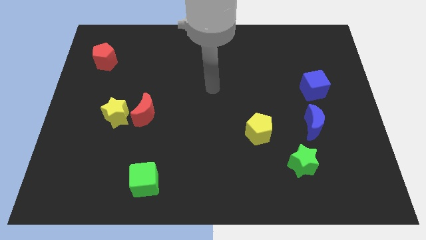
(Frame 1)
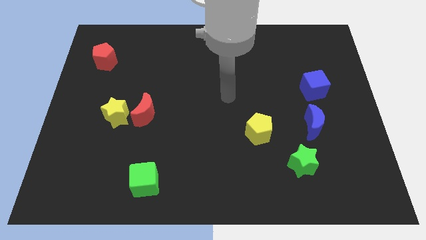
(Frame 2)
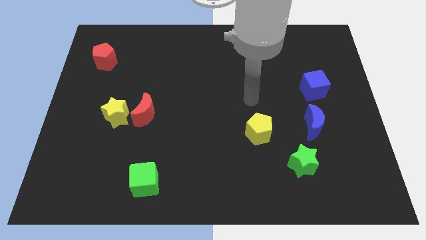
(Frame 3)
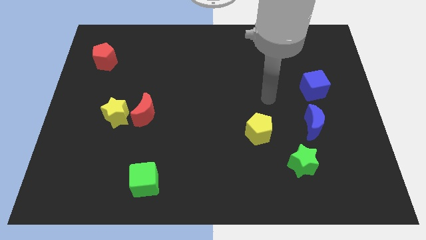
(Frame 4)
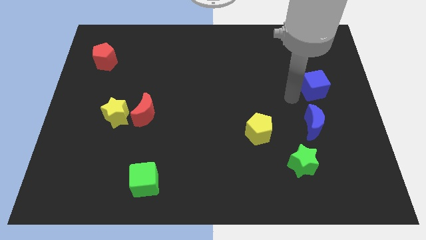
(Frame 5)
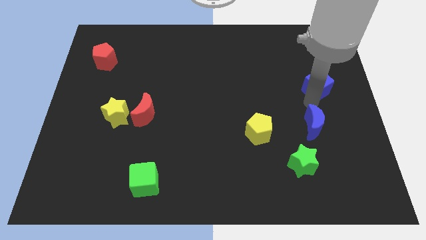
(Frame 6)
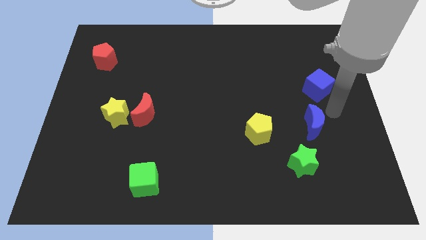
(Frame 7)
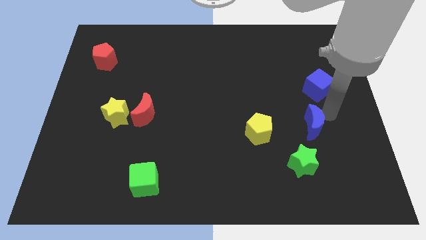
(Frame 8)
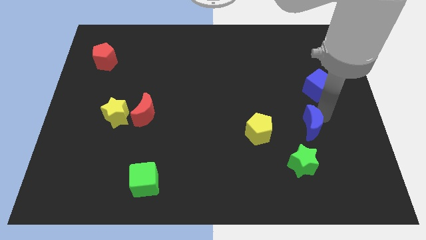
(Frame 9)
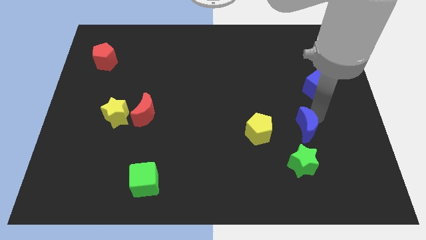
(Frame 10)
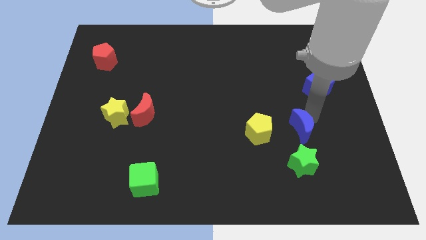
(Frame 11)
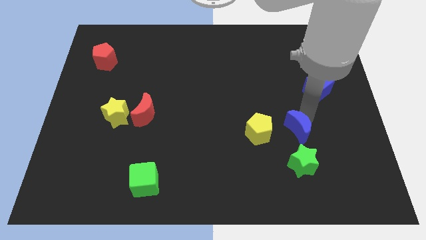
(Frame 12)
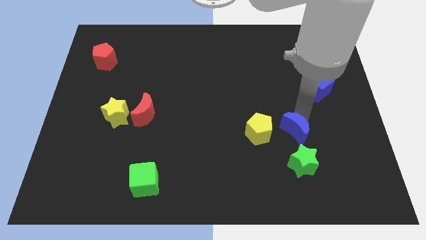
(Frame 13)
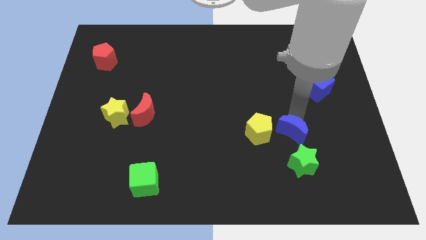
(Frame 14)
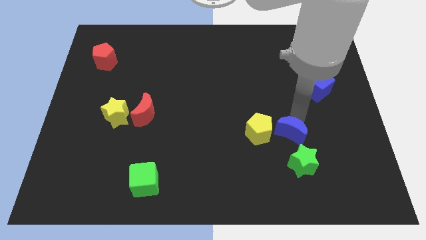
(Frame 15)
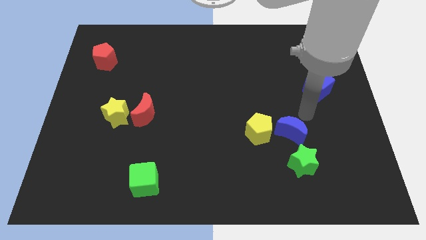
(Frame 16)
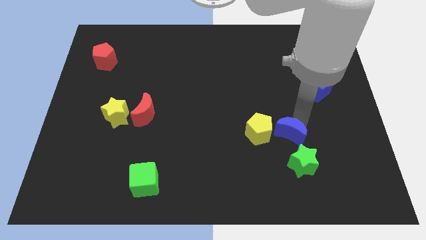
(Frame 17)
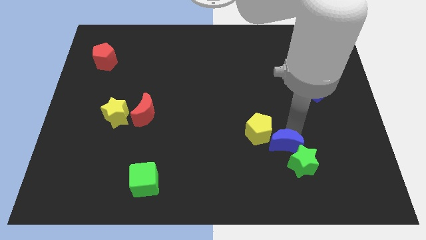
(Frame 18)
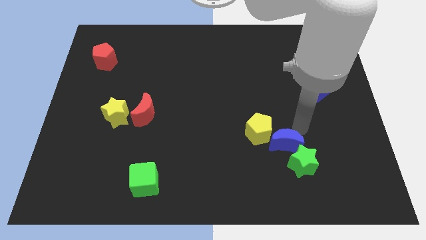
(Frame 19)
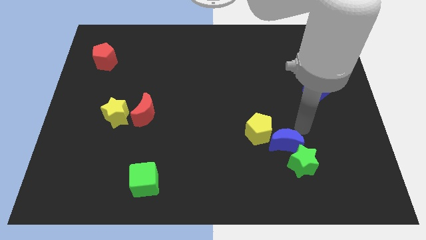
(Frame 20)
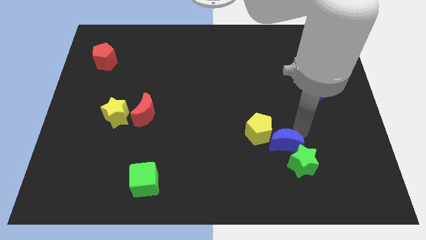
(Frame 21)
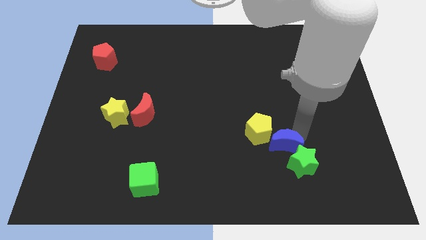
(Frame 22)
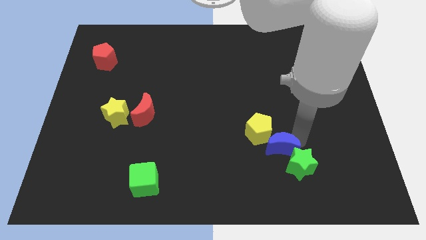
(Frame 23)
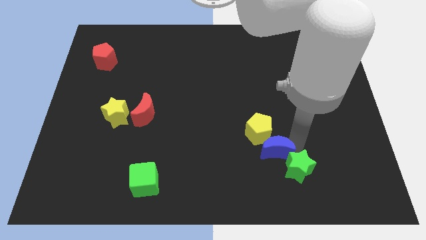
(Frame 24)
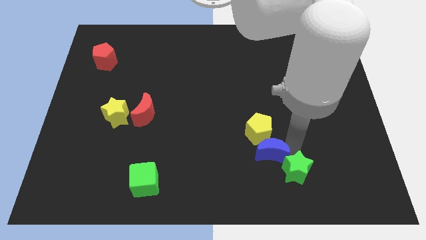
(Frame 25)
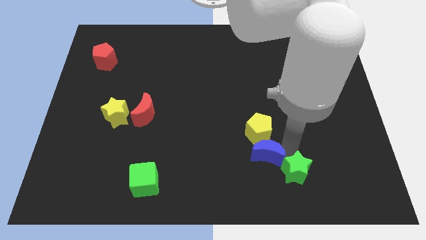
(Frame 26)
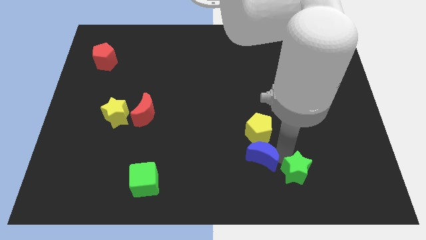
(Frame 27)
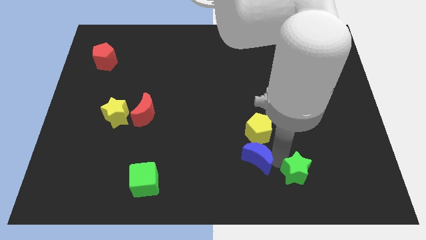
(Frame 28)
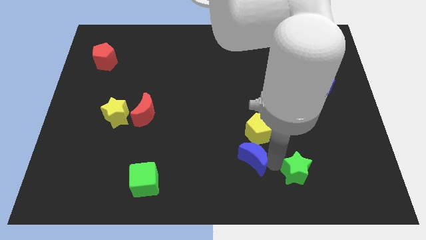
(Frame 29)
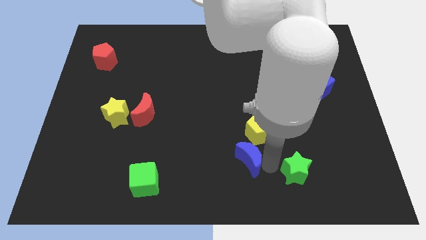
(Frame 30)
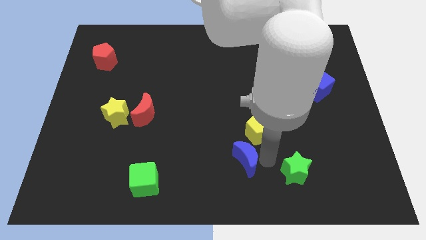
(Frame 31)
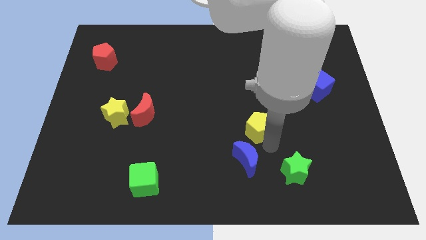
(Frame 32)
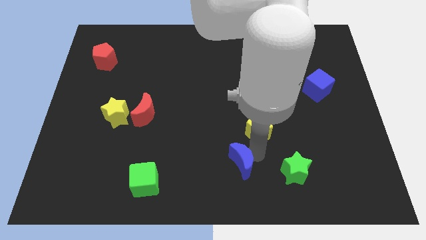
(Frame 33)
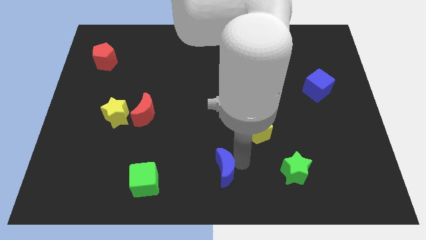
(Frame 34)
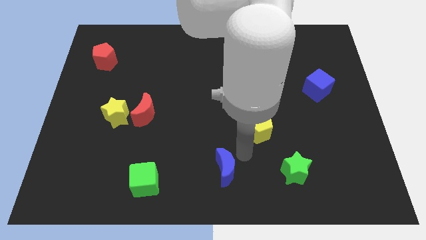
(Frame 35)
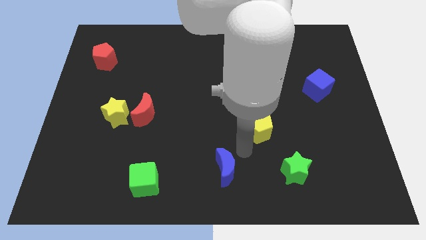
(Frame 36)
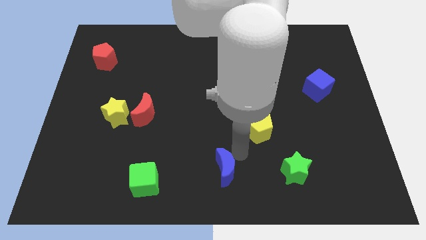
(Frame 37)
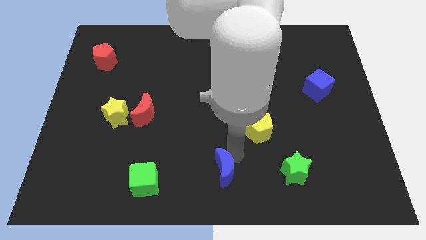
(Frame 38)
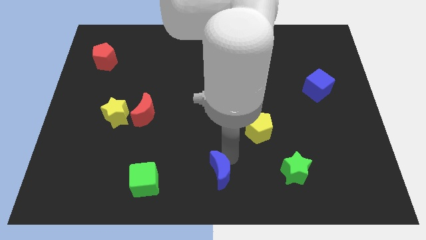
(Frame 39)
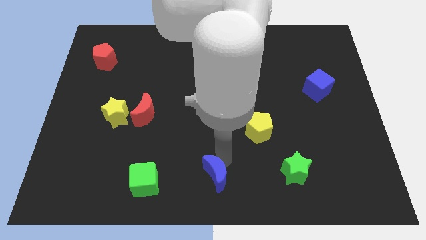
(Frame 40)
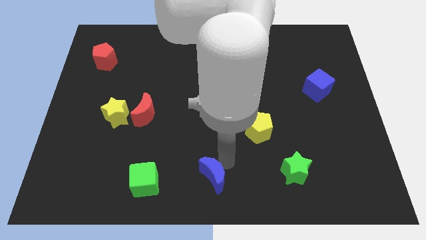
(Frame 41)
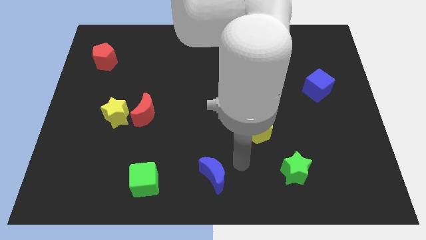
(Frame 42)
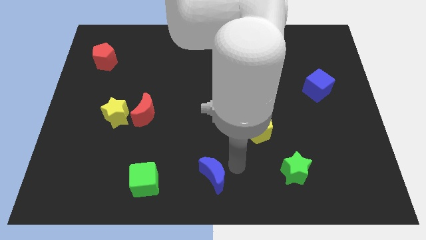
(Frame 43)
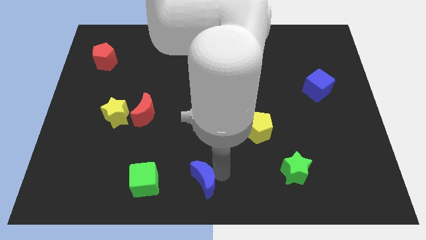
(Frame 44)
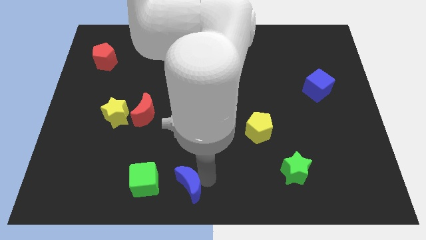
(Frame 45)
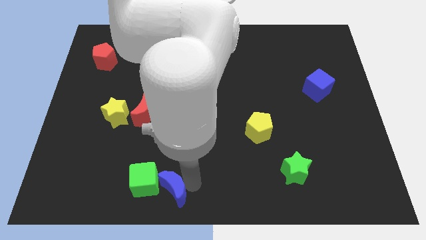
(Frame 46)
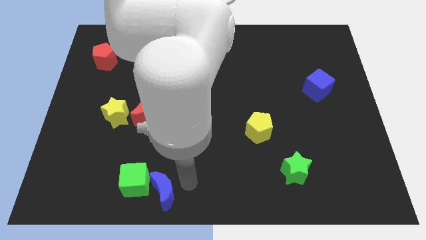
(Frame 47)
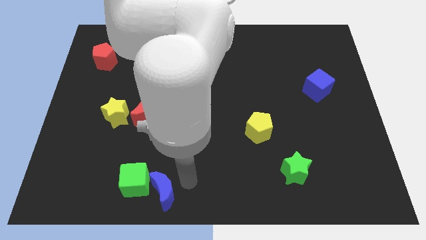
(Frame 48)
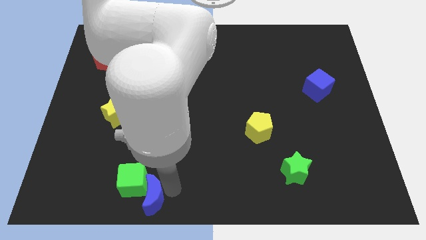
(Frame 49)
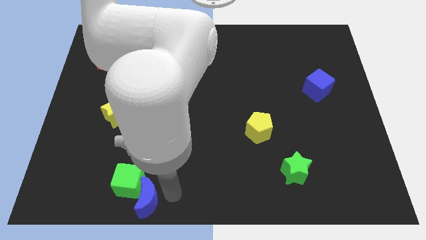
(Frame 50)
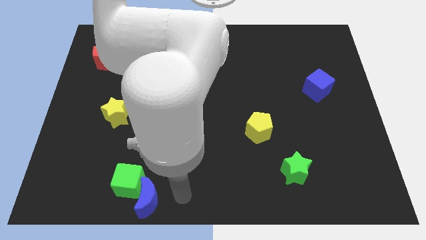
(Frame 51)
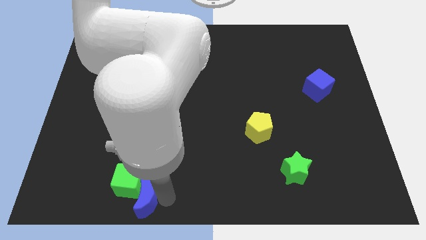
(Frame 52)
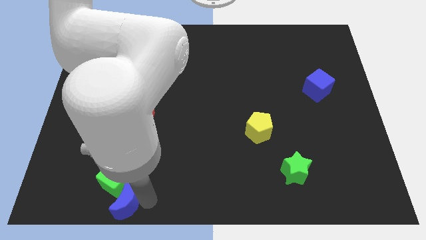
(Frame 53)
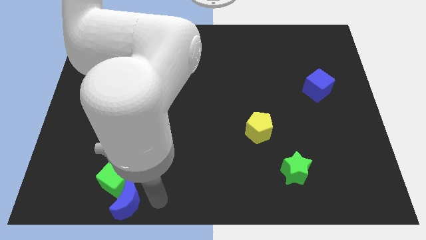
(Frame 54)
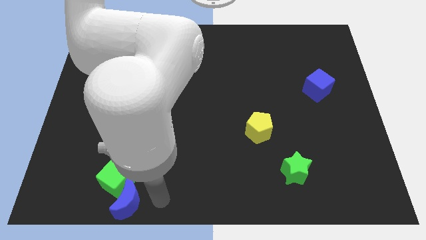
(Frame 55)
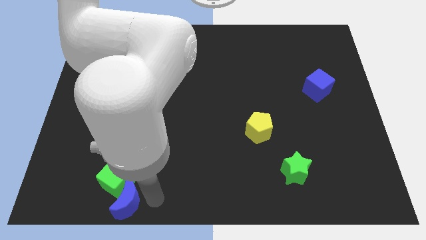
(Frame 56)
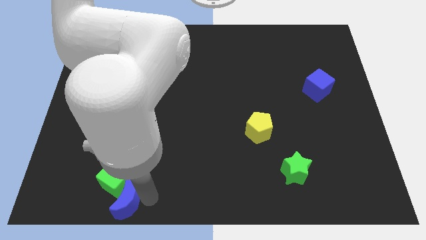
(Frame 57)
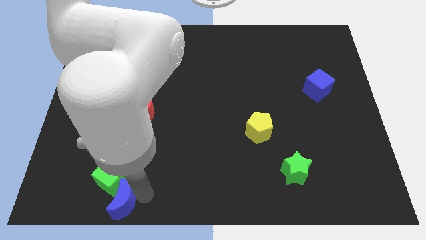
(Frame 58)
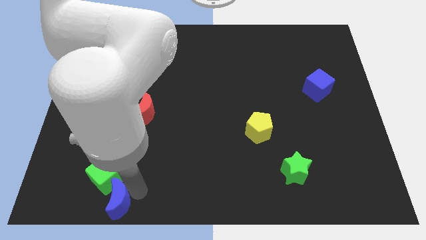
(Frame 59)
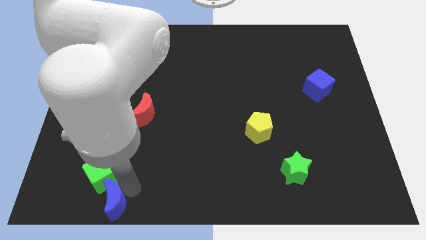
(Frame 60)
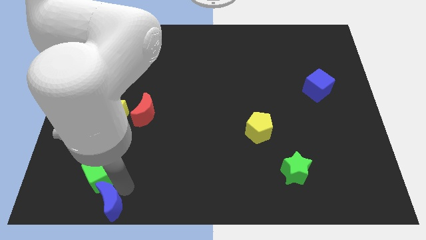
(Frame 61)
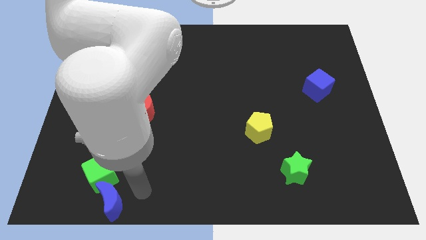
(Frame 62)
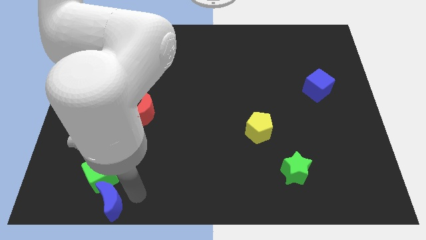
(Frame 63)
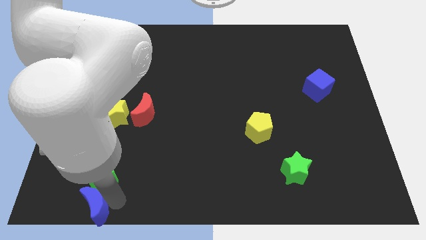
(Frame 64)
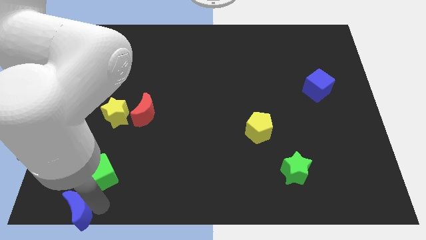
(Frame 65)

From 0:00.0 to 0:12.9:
slide the blue moon to the bottom left corner

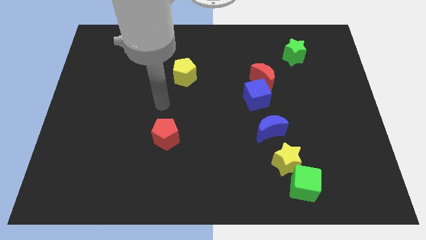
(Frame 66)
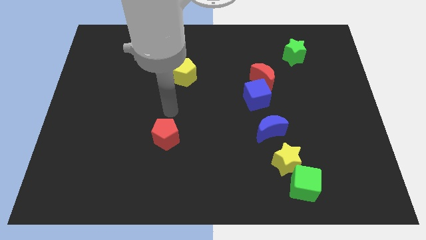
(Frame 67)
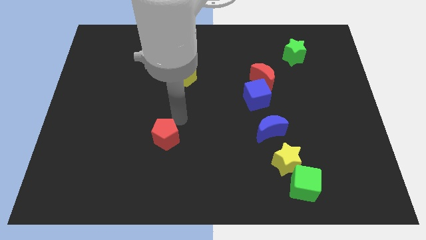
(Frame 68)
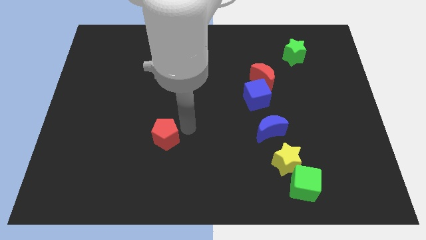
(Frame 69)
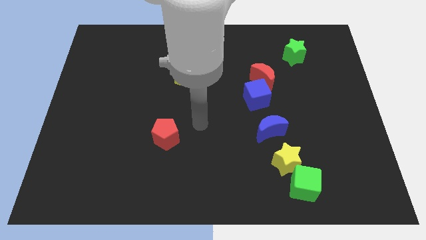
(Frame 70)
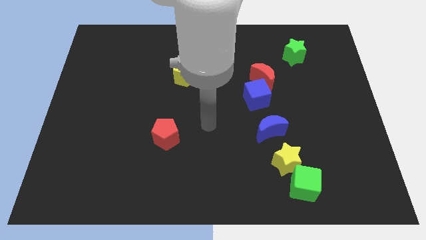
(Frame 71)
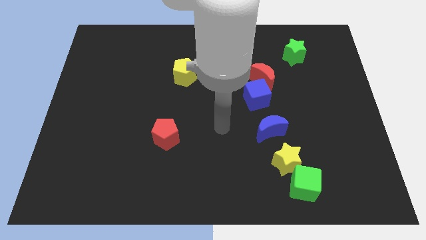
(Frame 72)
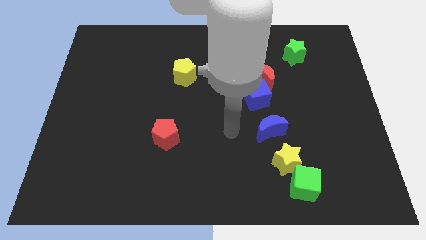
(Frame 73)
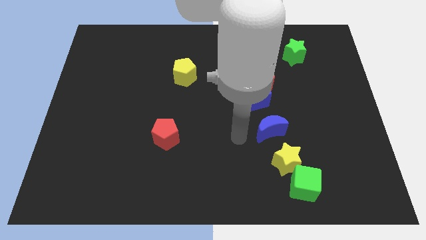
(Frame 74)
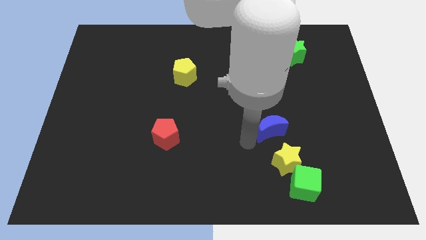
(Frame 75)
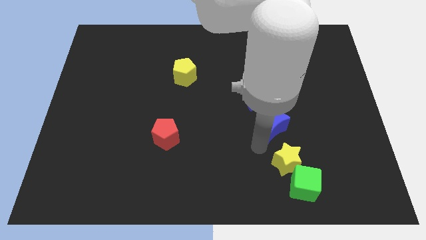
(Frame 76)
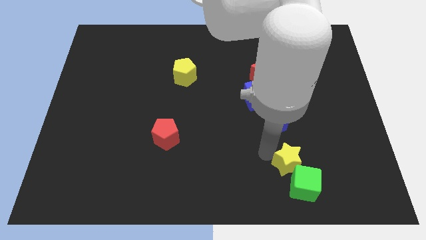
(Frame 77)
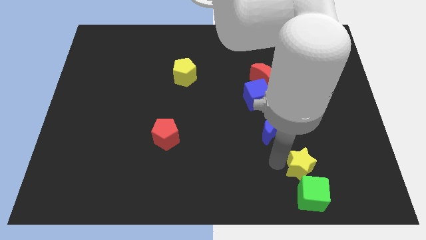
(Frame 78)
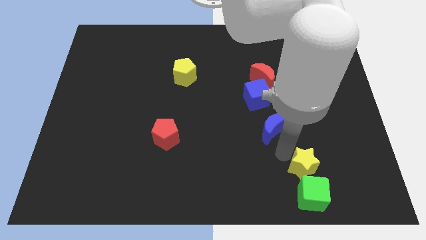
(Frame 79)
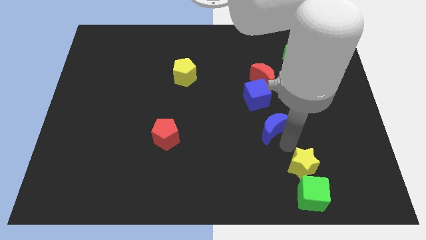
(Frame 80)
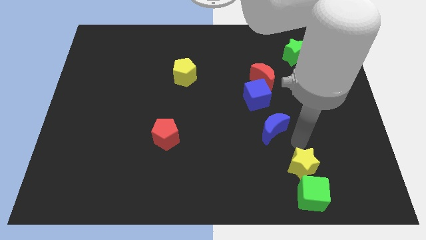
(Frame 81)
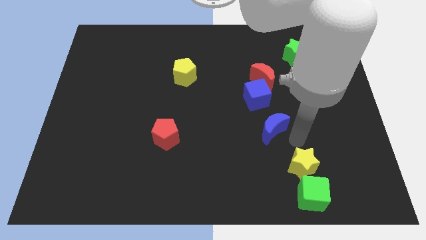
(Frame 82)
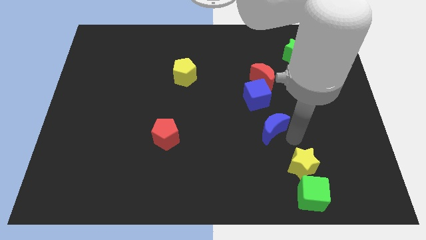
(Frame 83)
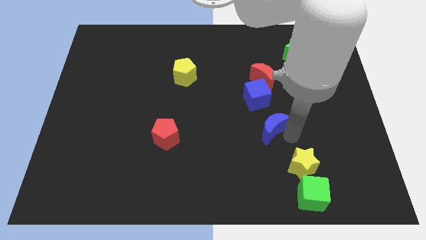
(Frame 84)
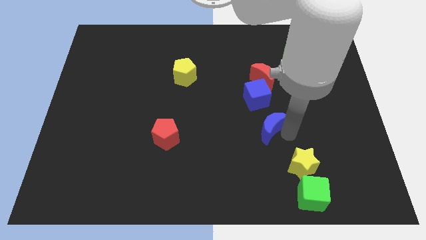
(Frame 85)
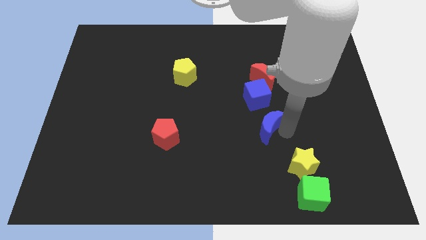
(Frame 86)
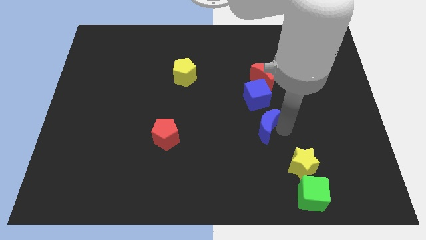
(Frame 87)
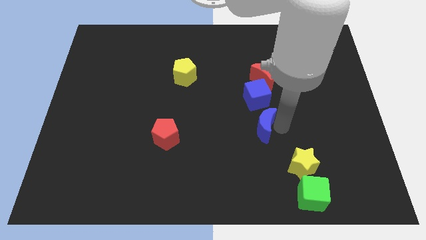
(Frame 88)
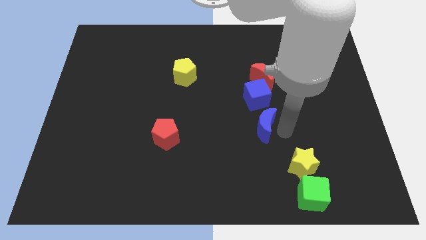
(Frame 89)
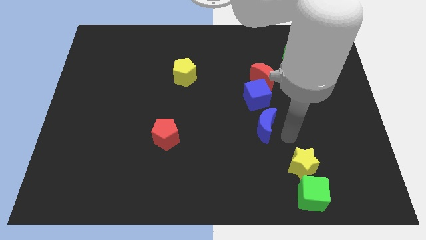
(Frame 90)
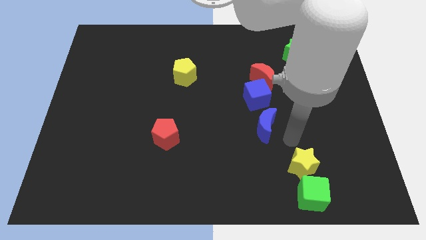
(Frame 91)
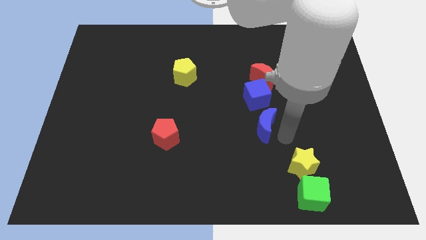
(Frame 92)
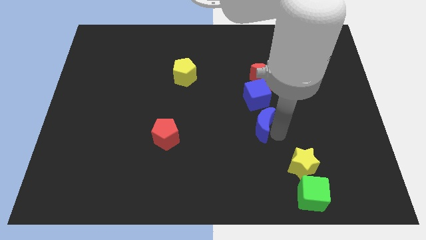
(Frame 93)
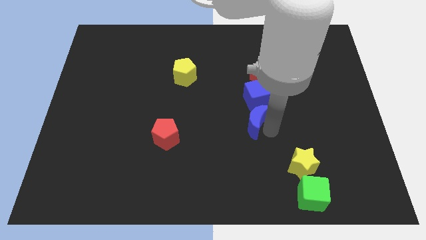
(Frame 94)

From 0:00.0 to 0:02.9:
move the blue moon to the middle of the board
